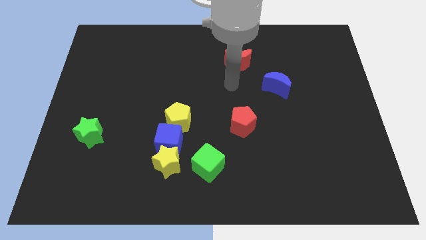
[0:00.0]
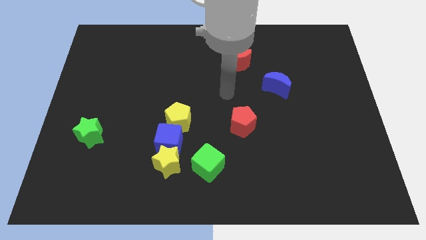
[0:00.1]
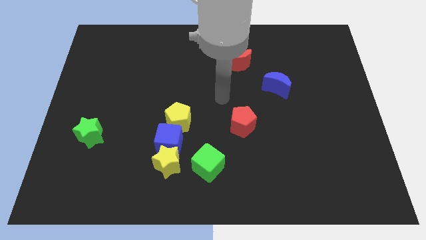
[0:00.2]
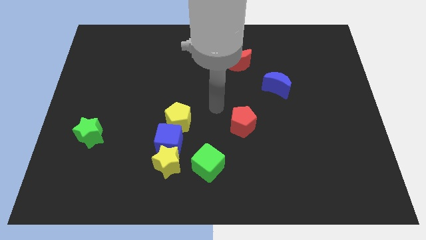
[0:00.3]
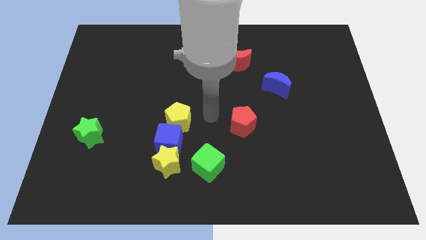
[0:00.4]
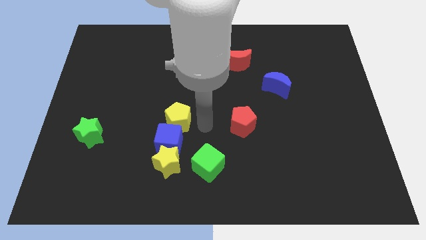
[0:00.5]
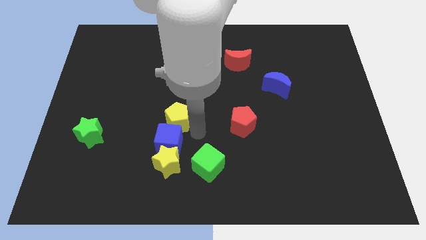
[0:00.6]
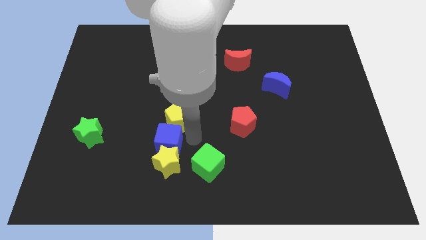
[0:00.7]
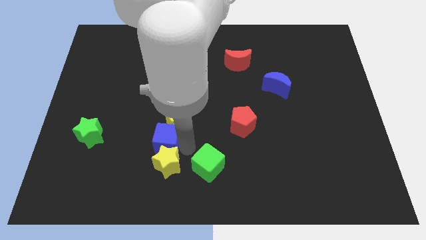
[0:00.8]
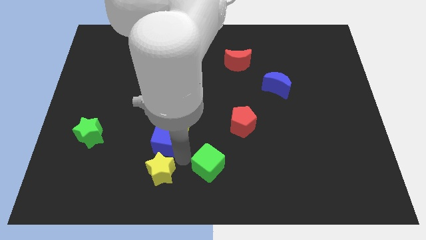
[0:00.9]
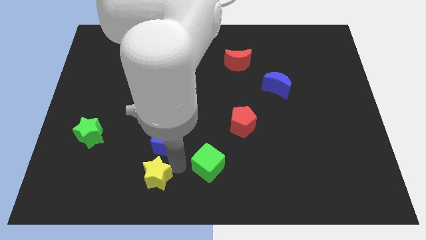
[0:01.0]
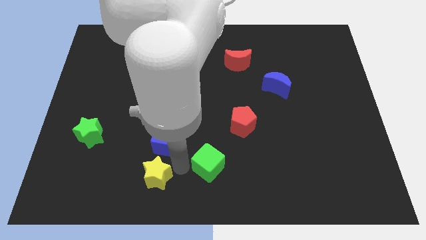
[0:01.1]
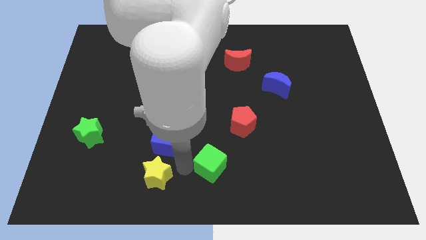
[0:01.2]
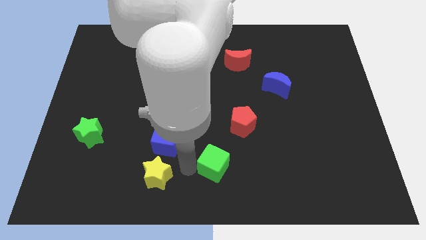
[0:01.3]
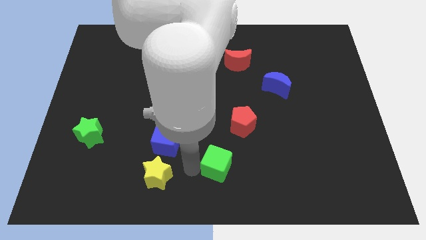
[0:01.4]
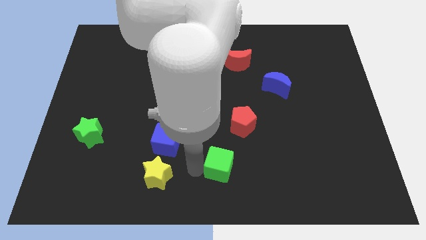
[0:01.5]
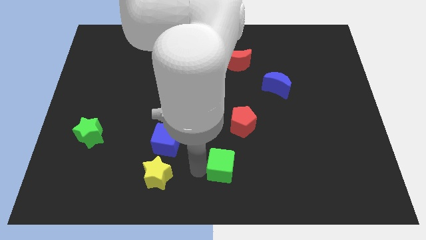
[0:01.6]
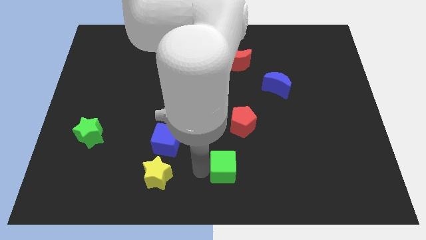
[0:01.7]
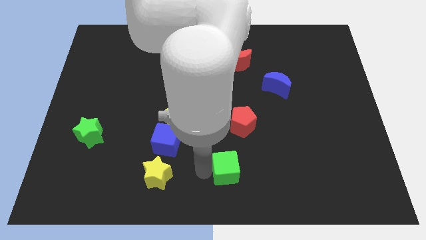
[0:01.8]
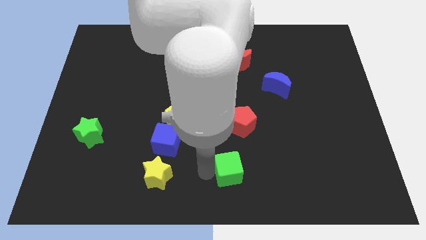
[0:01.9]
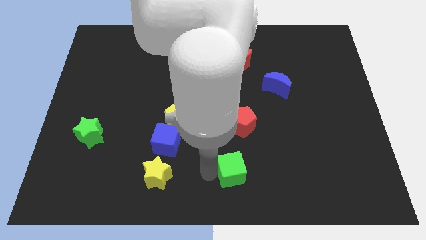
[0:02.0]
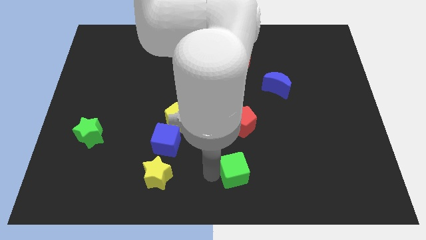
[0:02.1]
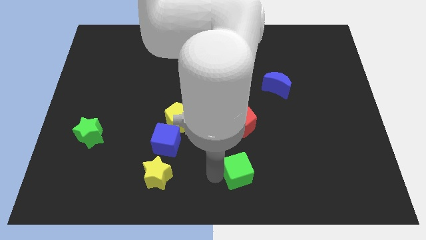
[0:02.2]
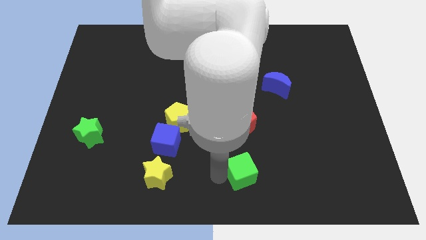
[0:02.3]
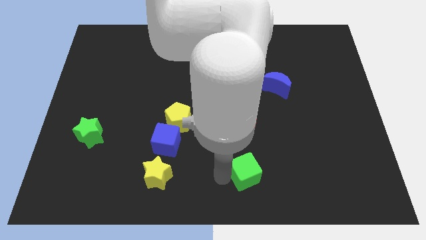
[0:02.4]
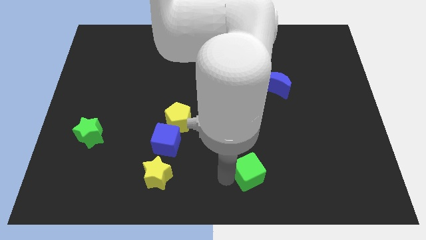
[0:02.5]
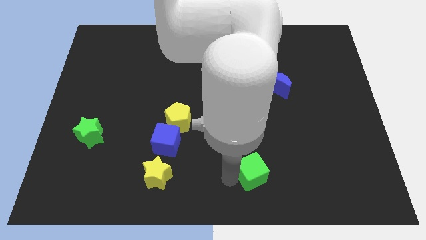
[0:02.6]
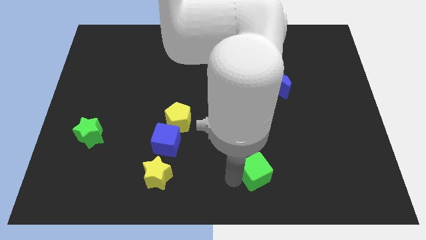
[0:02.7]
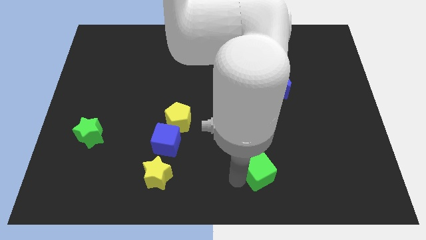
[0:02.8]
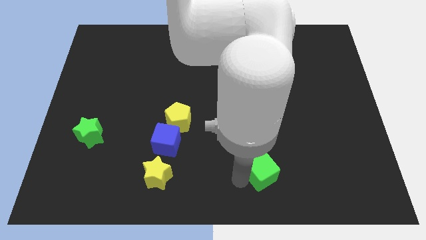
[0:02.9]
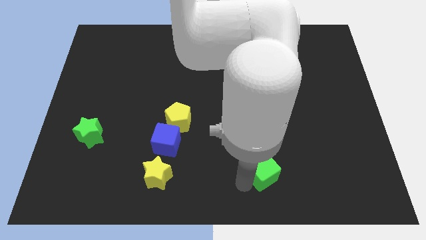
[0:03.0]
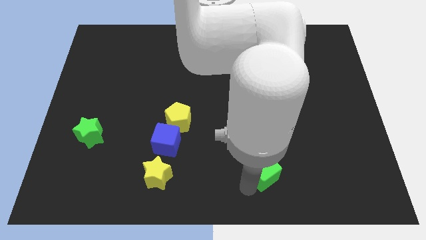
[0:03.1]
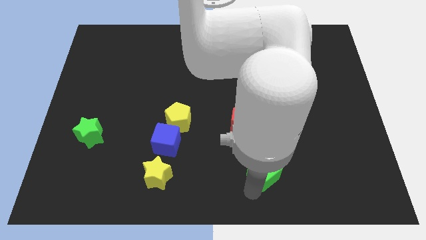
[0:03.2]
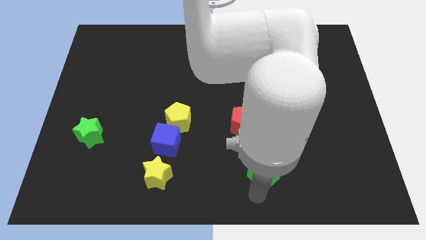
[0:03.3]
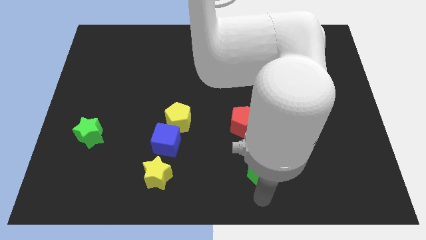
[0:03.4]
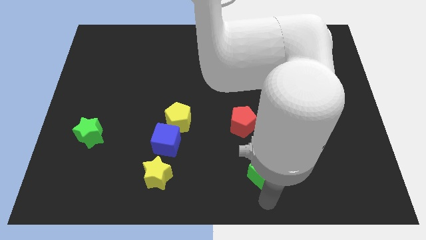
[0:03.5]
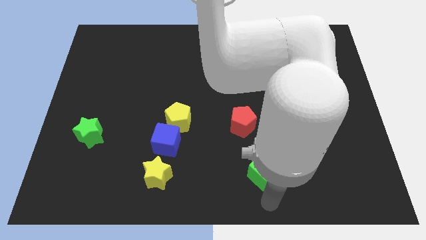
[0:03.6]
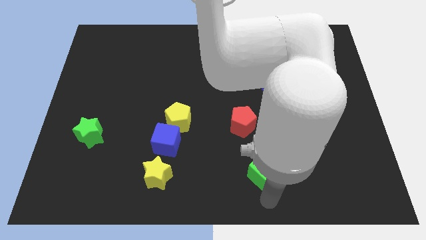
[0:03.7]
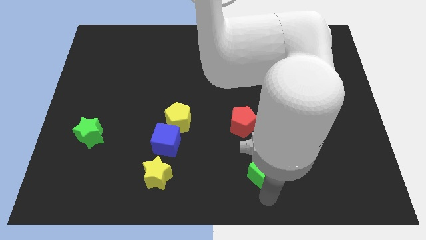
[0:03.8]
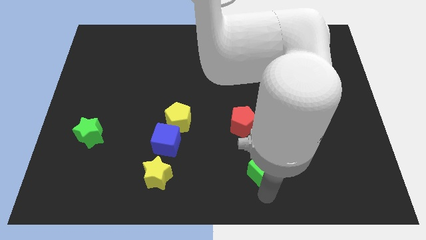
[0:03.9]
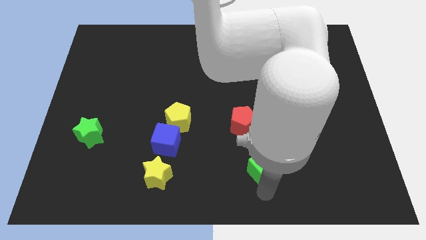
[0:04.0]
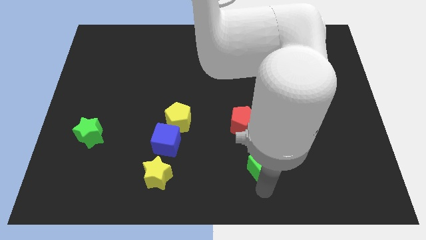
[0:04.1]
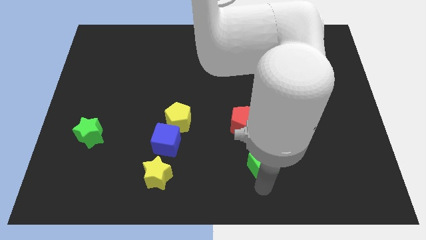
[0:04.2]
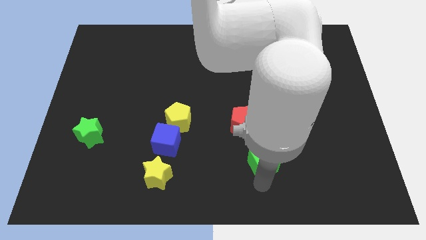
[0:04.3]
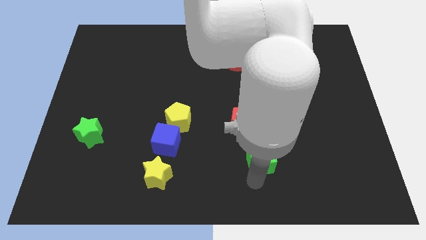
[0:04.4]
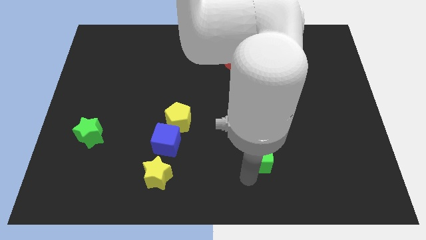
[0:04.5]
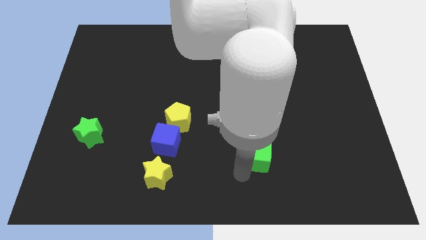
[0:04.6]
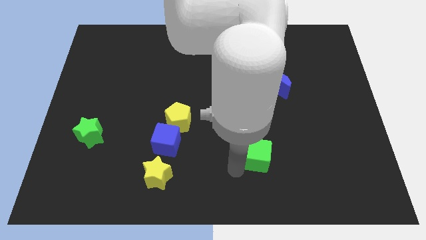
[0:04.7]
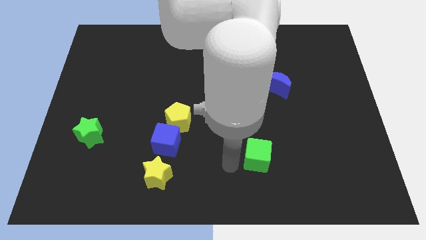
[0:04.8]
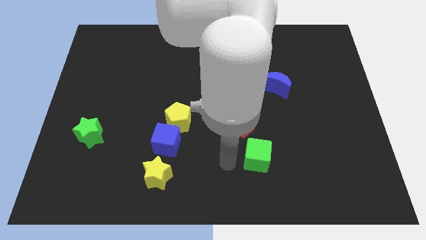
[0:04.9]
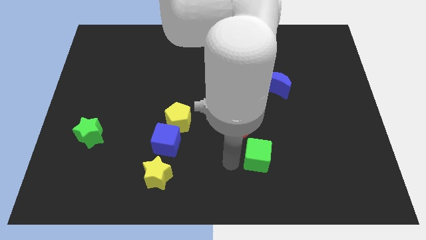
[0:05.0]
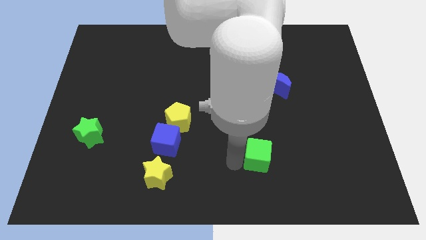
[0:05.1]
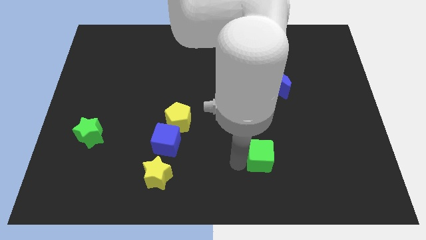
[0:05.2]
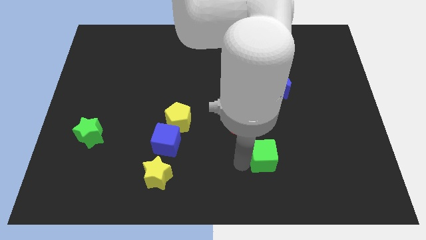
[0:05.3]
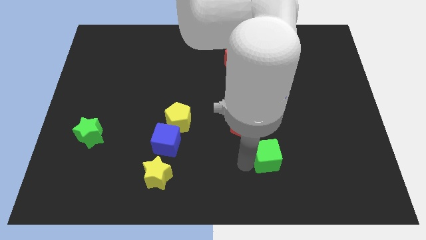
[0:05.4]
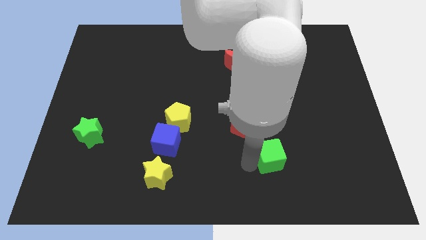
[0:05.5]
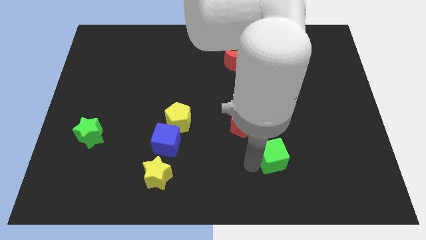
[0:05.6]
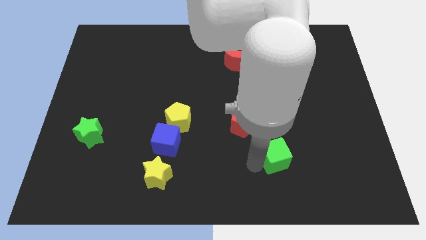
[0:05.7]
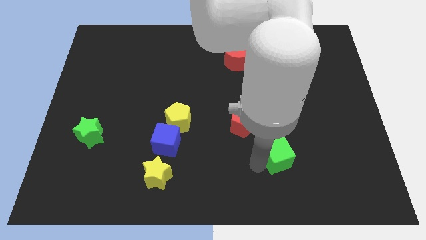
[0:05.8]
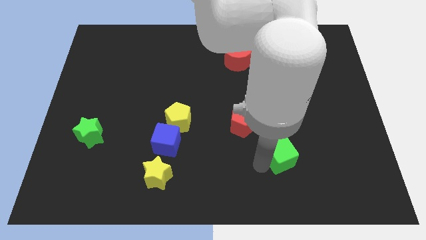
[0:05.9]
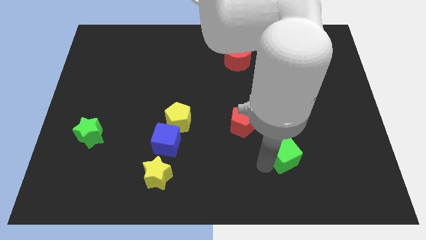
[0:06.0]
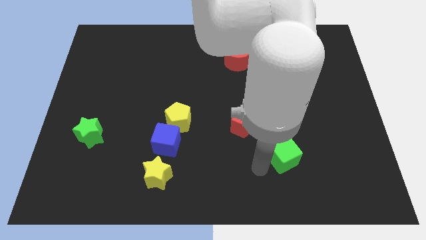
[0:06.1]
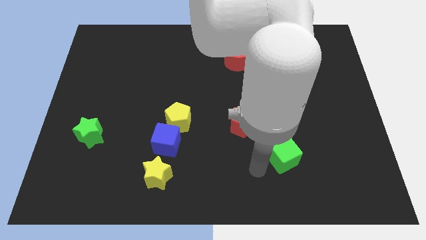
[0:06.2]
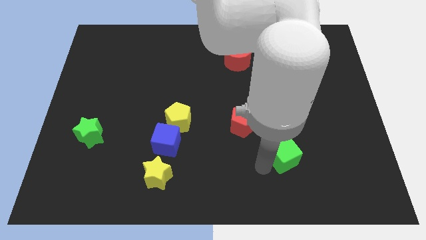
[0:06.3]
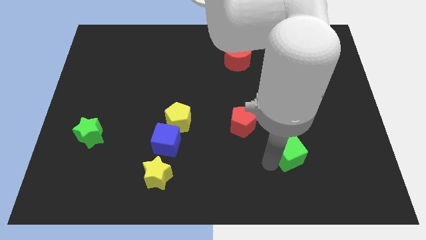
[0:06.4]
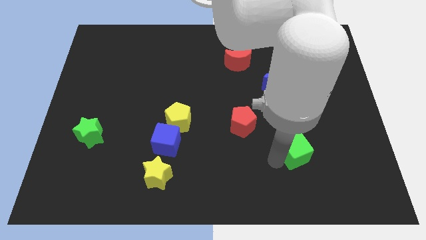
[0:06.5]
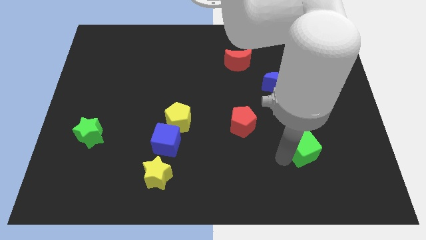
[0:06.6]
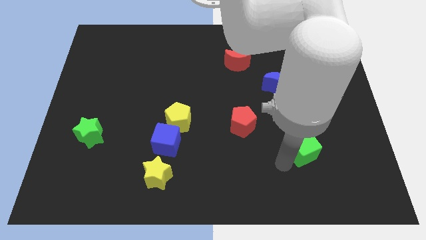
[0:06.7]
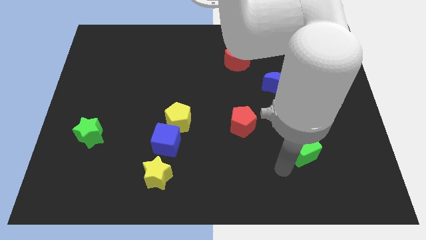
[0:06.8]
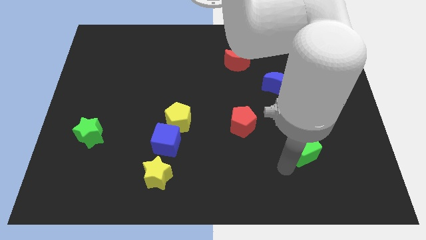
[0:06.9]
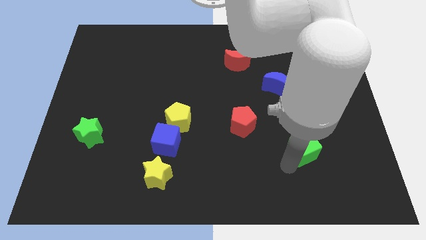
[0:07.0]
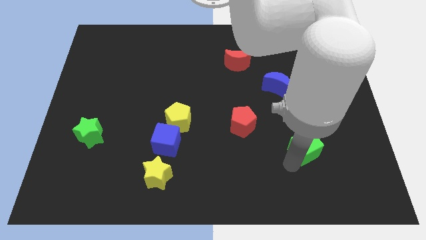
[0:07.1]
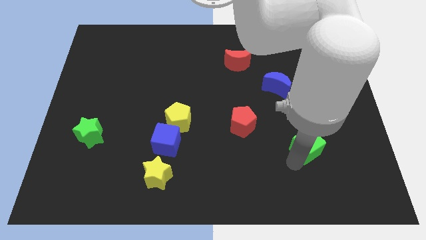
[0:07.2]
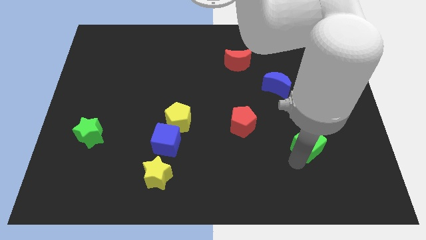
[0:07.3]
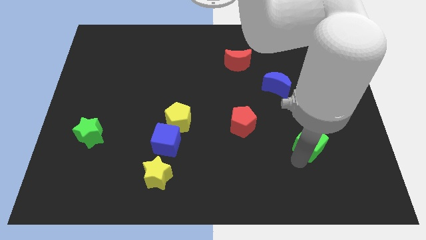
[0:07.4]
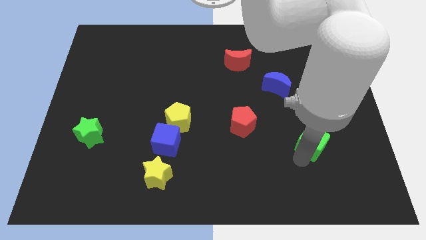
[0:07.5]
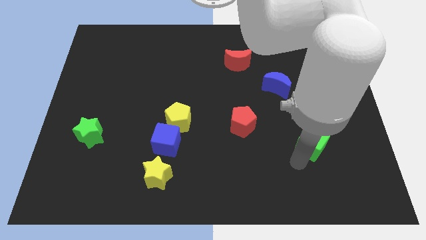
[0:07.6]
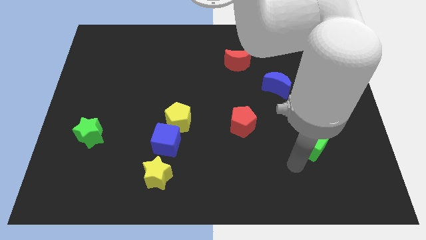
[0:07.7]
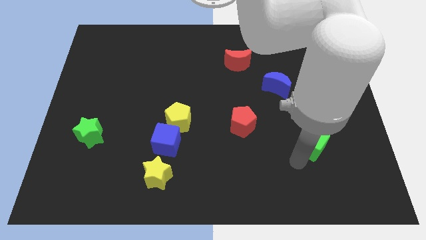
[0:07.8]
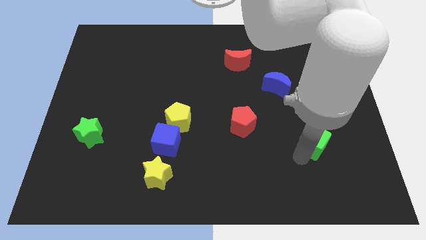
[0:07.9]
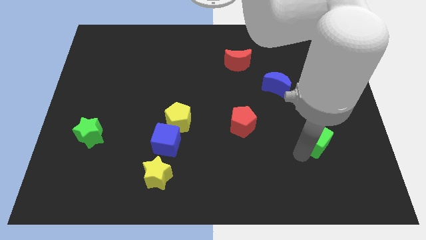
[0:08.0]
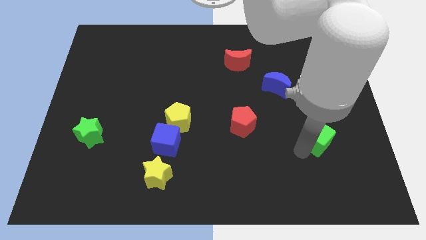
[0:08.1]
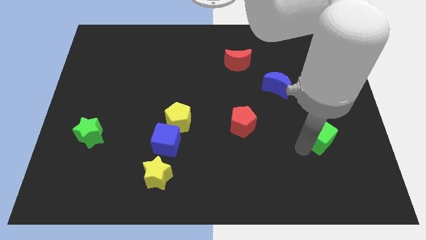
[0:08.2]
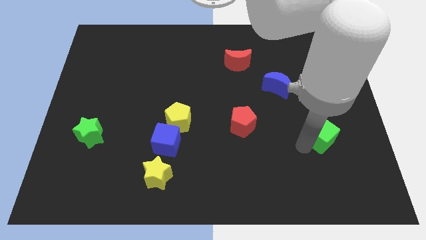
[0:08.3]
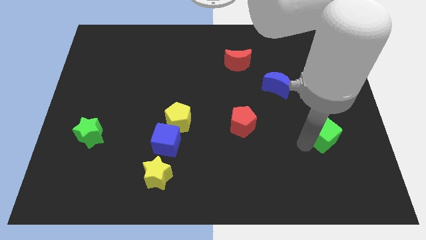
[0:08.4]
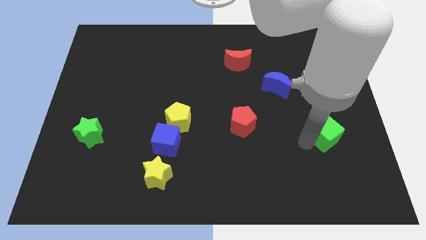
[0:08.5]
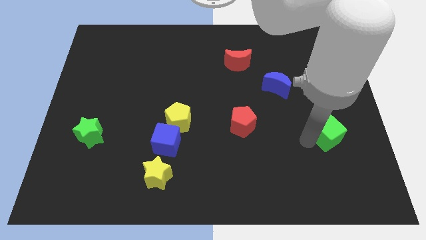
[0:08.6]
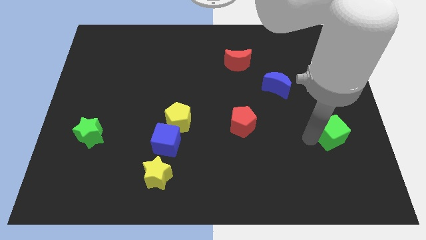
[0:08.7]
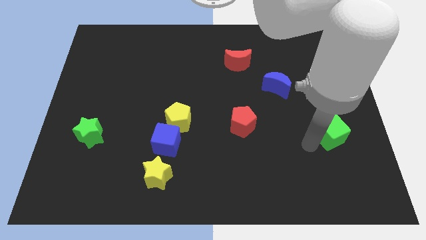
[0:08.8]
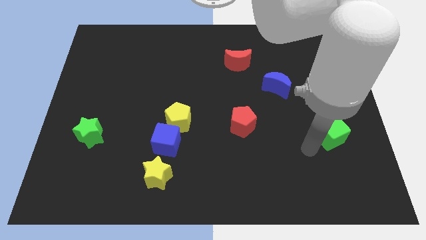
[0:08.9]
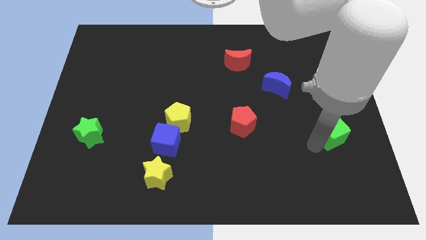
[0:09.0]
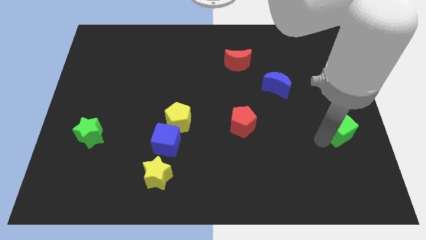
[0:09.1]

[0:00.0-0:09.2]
put the green cube to the right side
